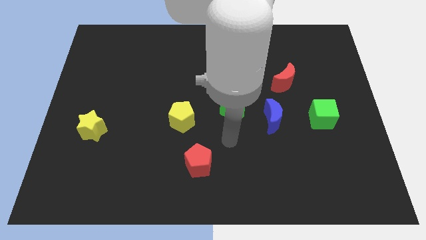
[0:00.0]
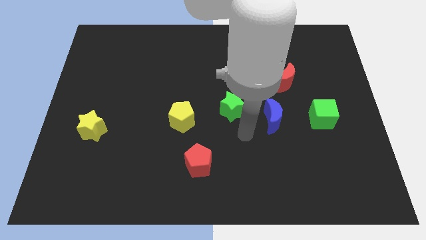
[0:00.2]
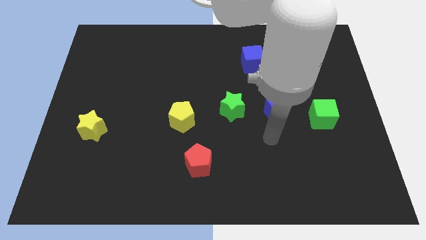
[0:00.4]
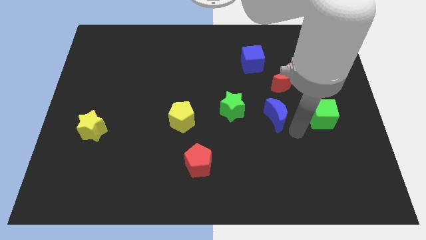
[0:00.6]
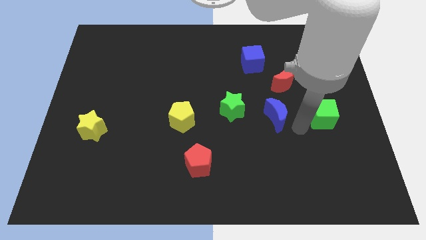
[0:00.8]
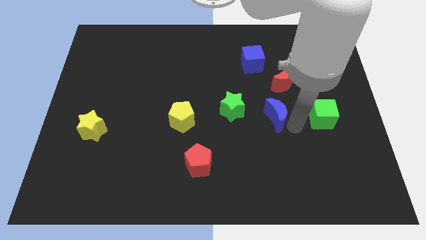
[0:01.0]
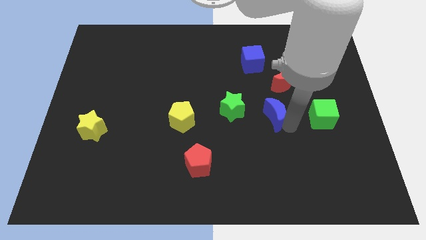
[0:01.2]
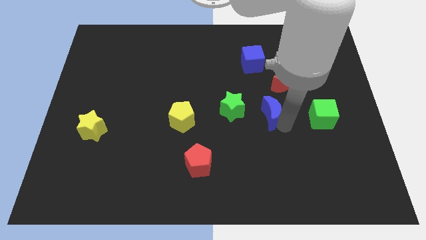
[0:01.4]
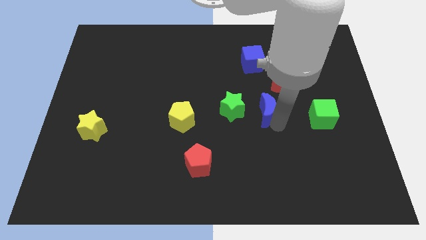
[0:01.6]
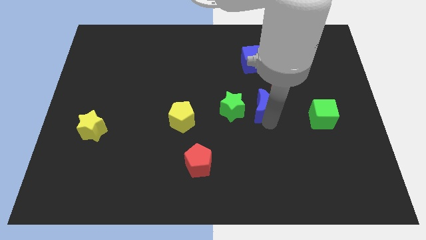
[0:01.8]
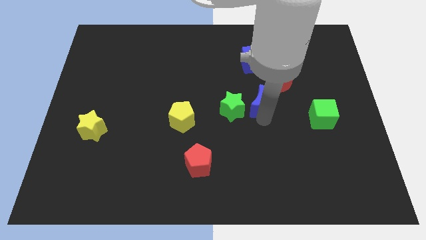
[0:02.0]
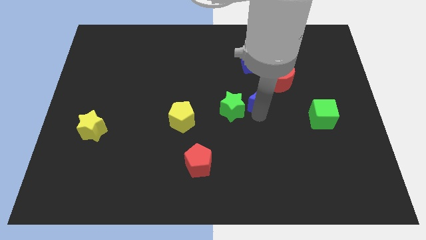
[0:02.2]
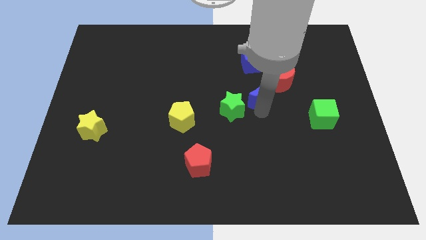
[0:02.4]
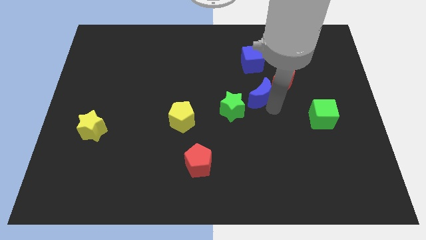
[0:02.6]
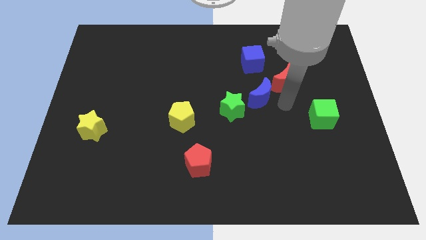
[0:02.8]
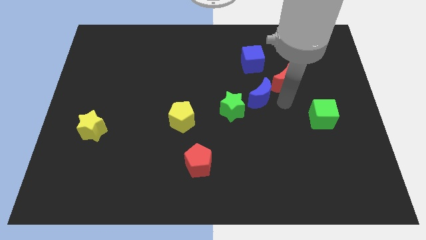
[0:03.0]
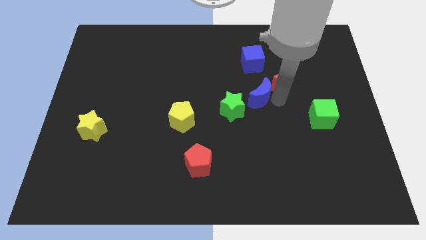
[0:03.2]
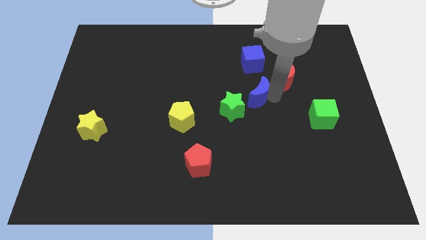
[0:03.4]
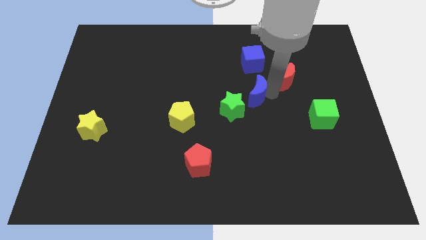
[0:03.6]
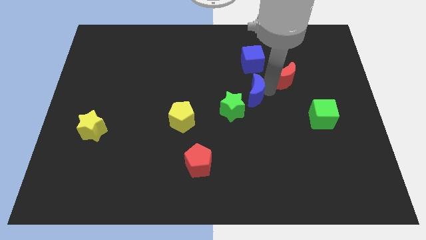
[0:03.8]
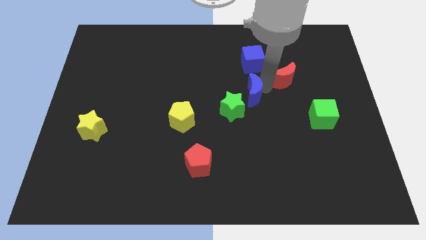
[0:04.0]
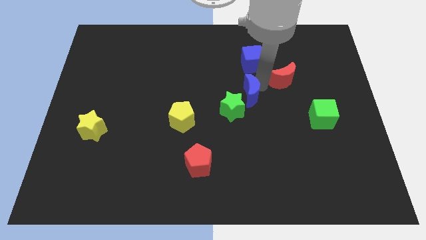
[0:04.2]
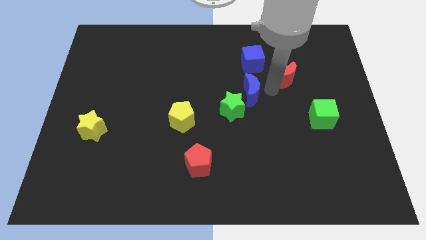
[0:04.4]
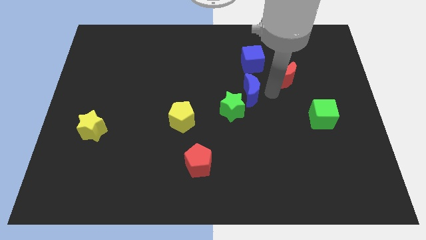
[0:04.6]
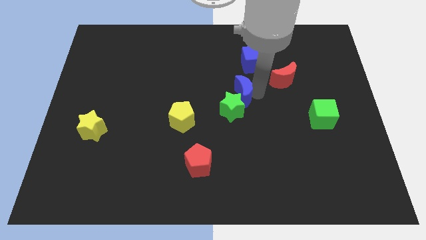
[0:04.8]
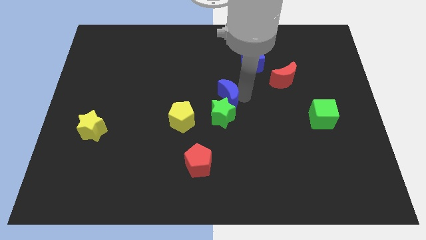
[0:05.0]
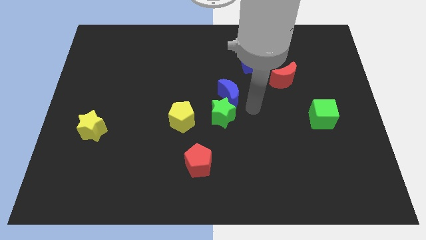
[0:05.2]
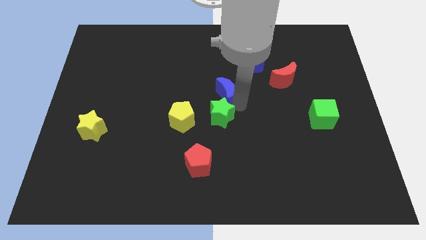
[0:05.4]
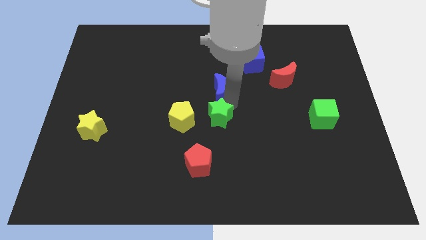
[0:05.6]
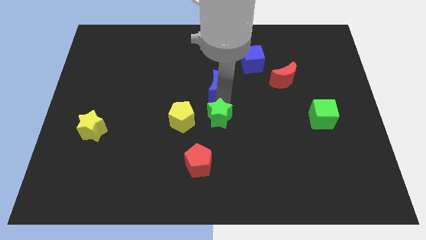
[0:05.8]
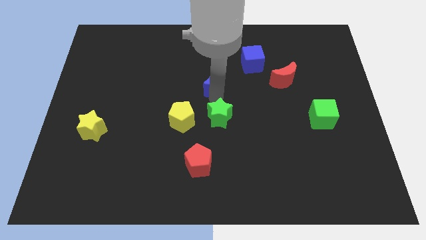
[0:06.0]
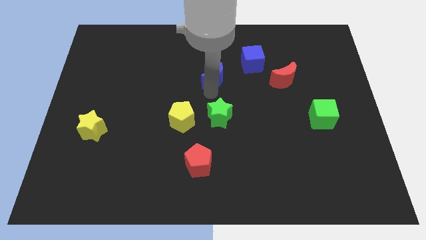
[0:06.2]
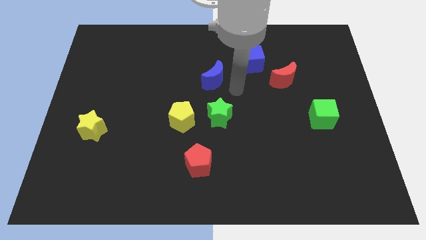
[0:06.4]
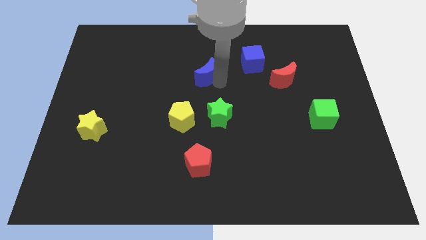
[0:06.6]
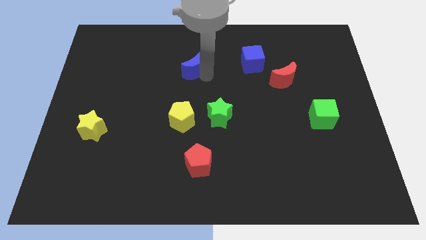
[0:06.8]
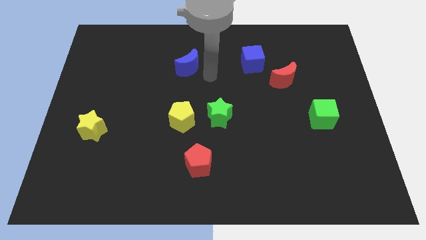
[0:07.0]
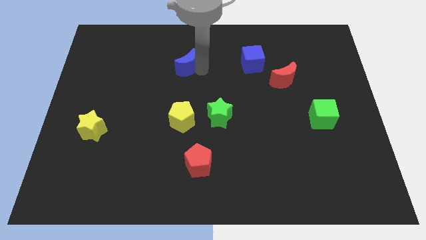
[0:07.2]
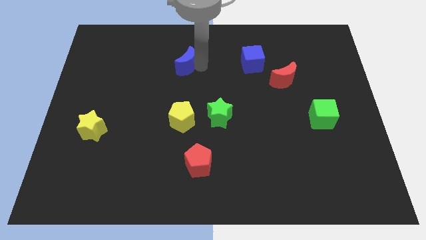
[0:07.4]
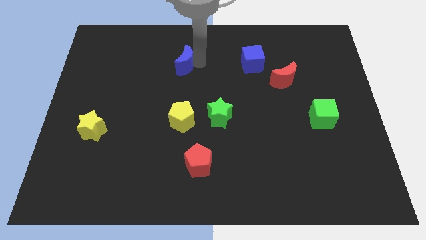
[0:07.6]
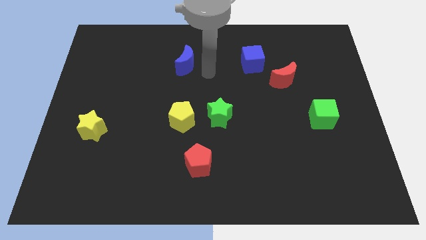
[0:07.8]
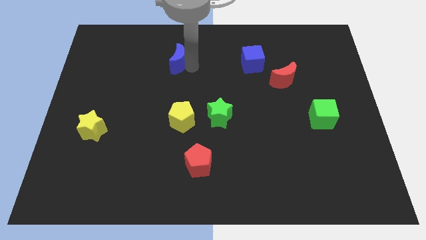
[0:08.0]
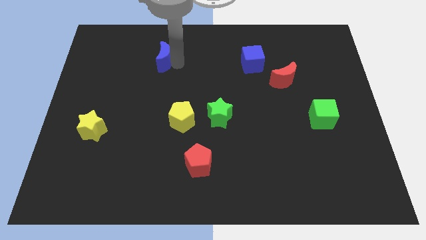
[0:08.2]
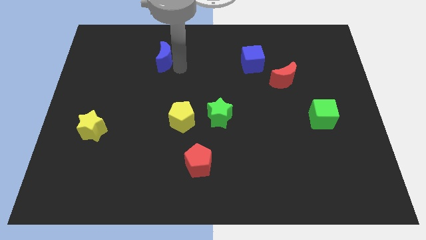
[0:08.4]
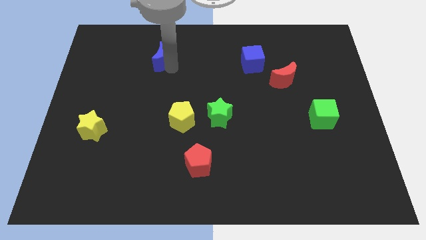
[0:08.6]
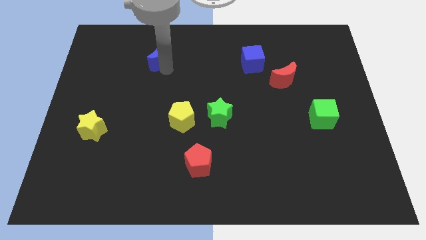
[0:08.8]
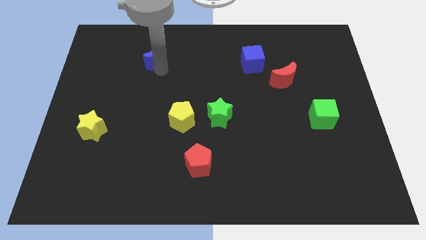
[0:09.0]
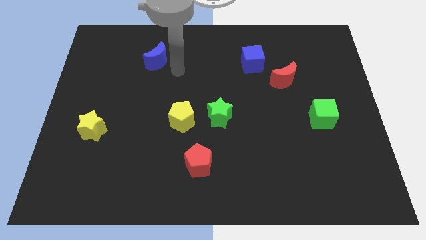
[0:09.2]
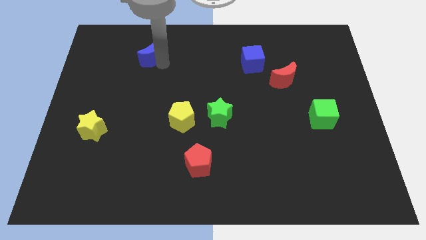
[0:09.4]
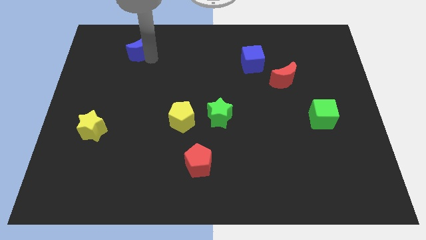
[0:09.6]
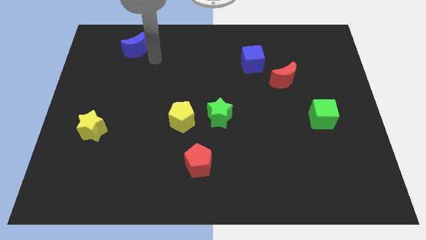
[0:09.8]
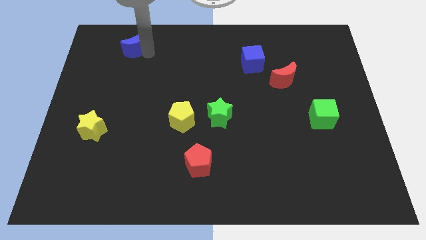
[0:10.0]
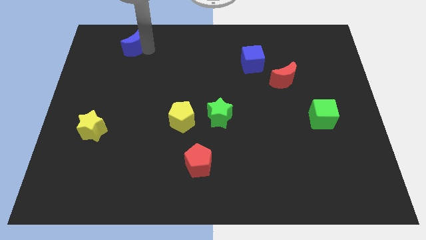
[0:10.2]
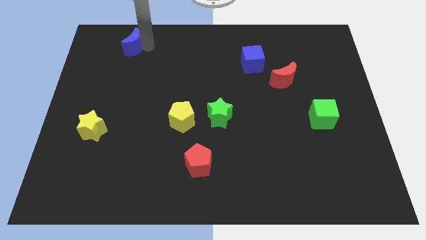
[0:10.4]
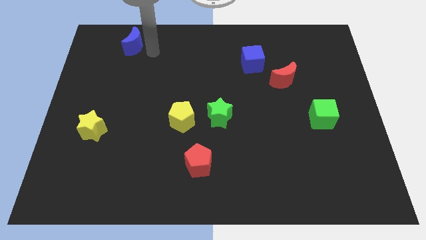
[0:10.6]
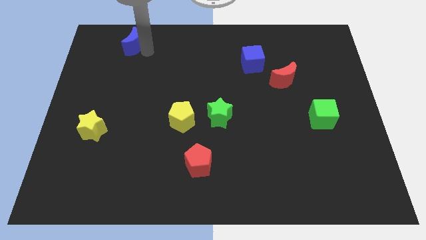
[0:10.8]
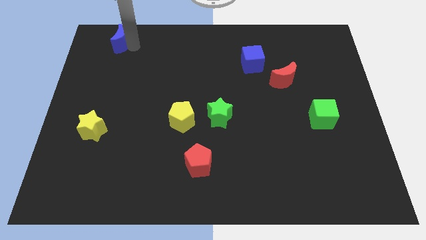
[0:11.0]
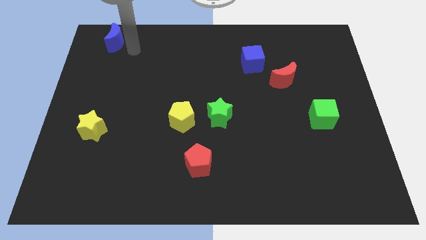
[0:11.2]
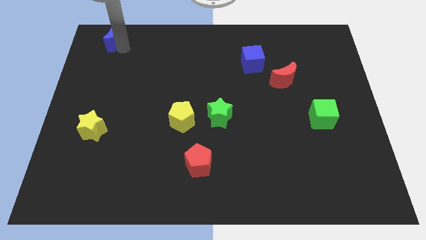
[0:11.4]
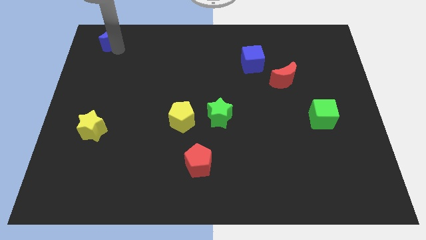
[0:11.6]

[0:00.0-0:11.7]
push the blue moon to the top left
